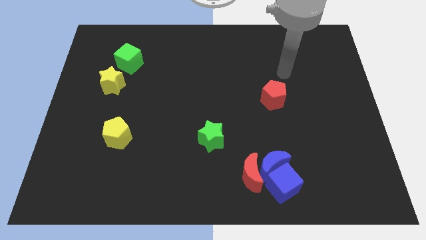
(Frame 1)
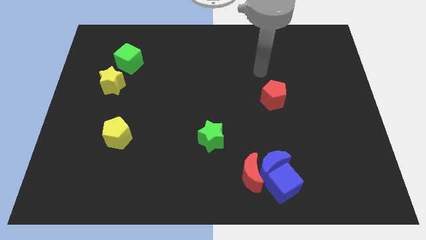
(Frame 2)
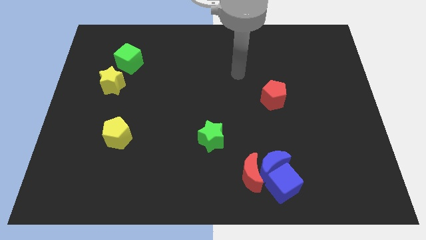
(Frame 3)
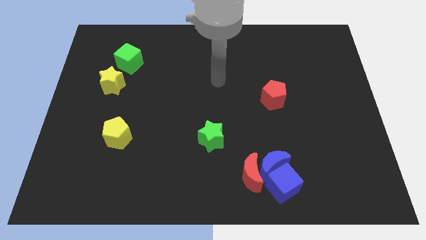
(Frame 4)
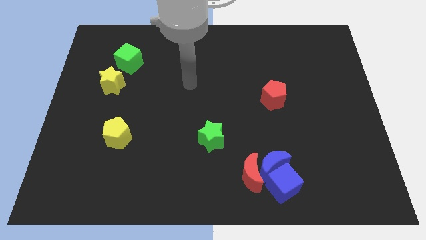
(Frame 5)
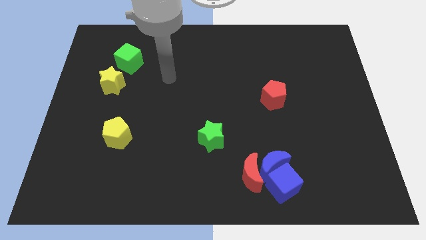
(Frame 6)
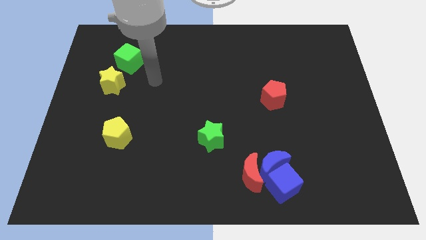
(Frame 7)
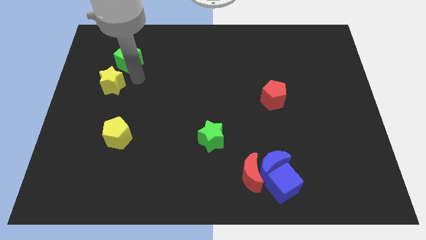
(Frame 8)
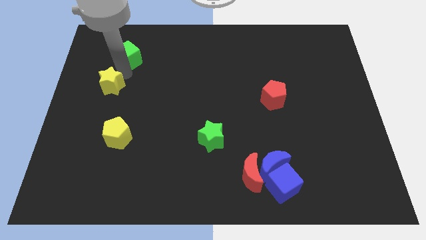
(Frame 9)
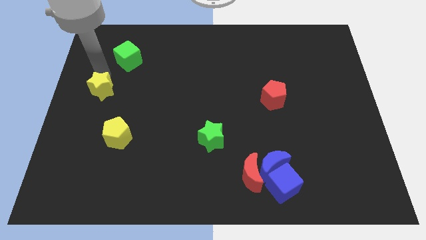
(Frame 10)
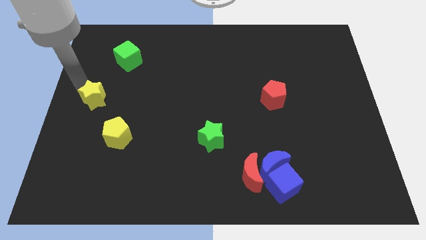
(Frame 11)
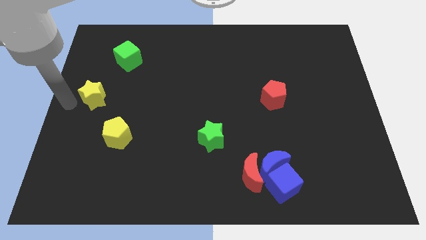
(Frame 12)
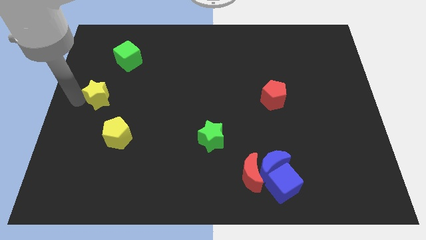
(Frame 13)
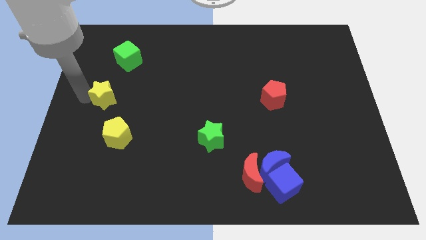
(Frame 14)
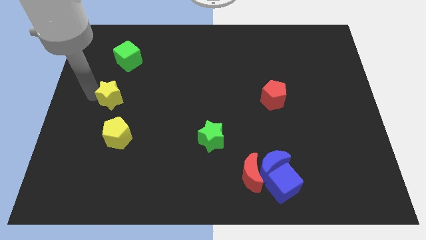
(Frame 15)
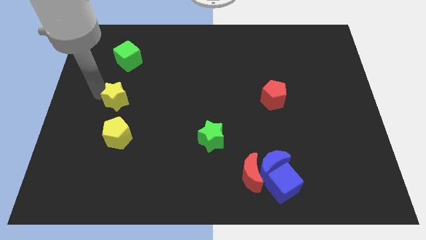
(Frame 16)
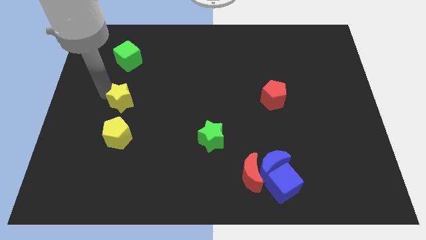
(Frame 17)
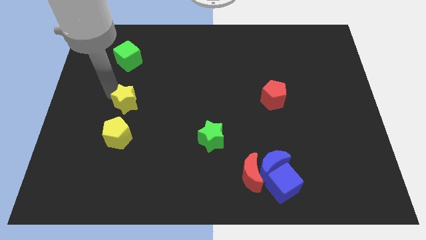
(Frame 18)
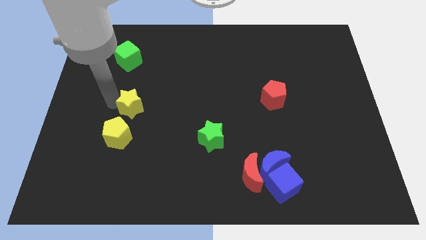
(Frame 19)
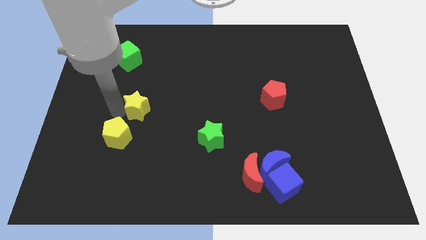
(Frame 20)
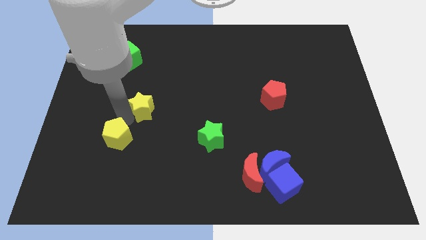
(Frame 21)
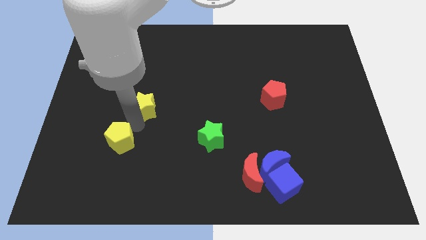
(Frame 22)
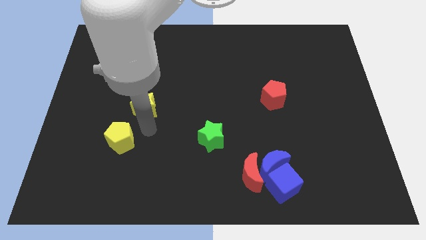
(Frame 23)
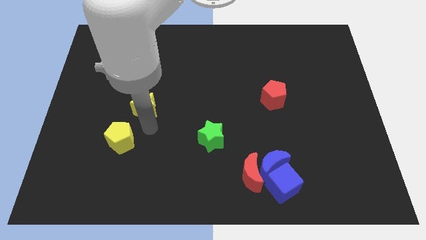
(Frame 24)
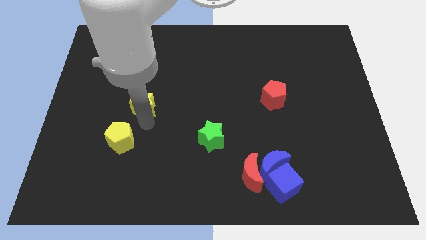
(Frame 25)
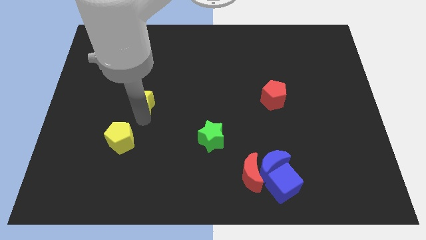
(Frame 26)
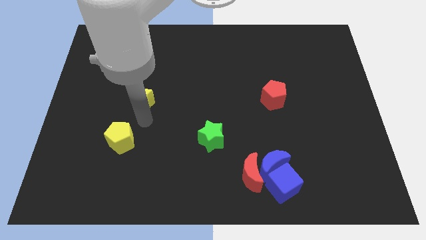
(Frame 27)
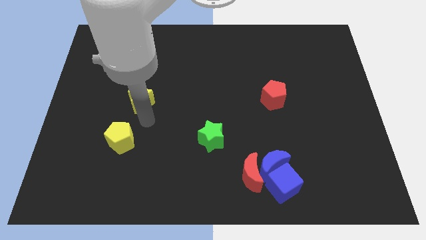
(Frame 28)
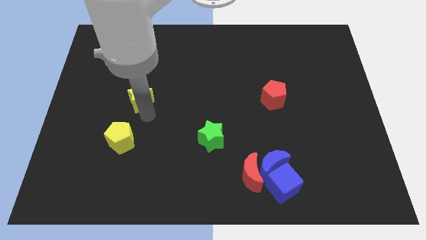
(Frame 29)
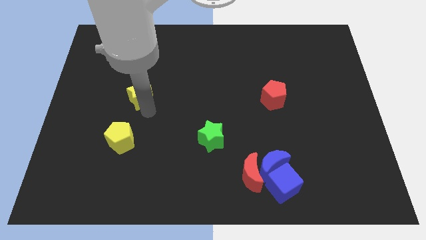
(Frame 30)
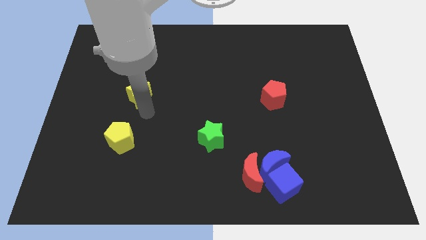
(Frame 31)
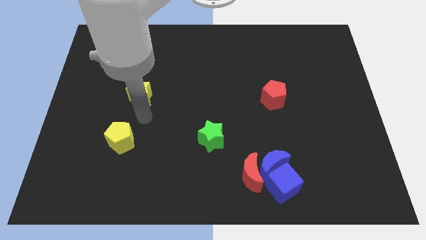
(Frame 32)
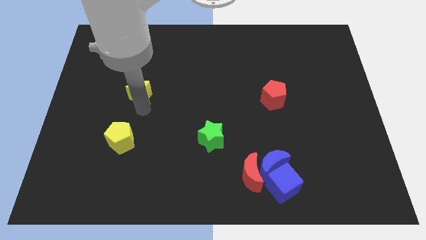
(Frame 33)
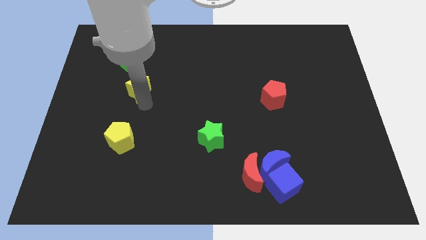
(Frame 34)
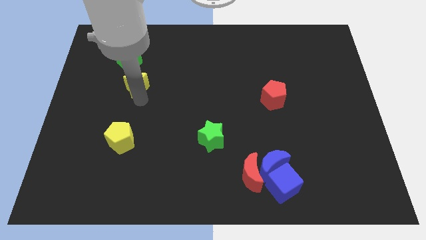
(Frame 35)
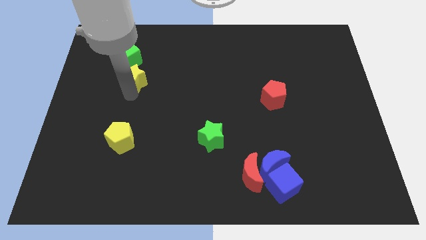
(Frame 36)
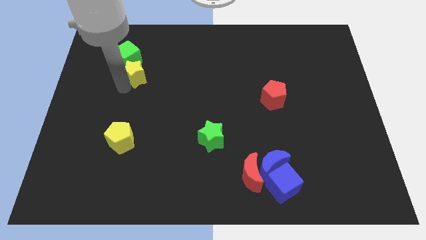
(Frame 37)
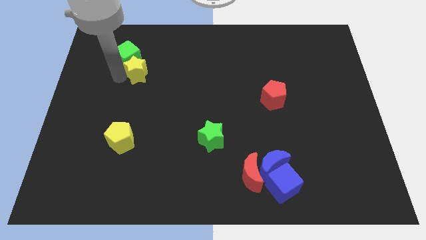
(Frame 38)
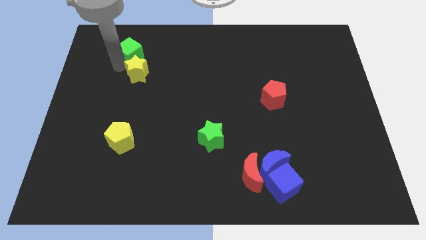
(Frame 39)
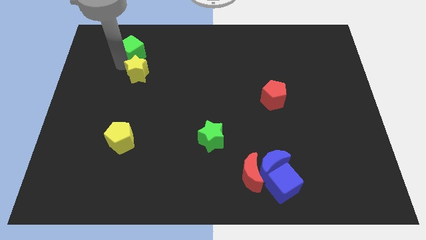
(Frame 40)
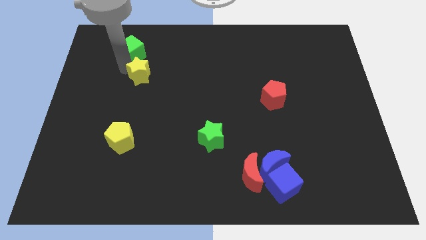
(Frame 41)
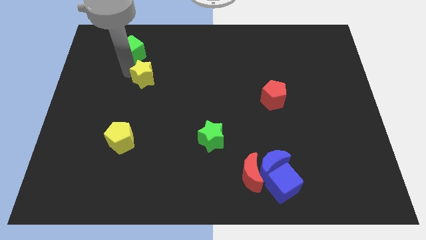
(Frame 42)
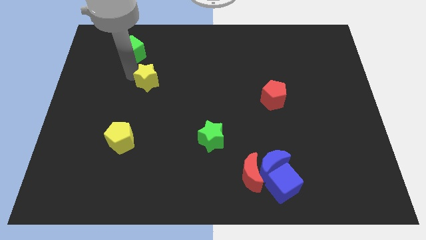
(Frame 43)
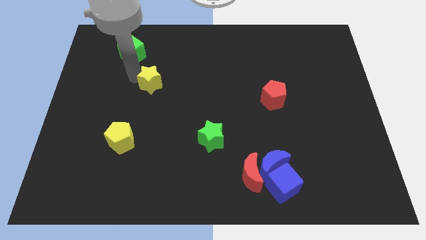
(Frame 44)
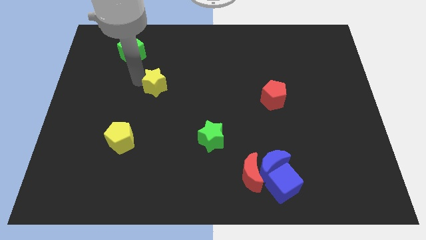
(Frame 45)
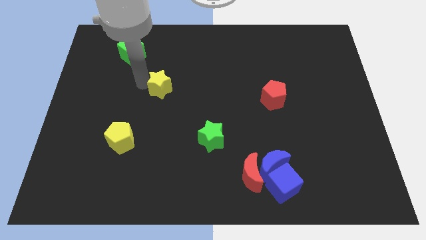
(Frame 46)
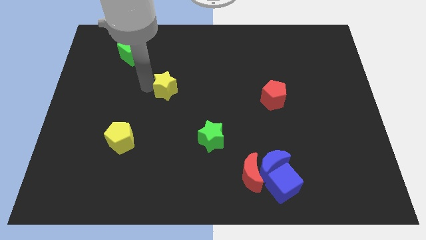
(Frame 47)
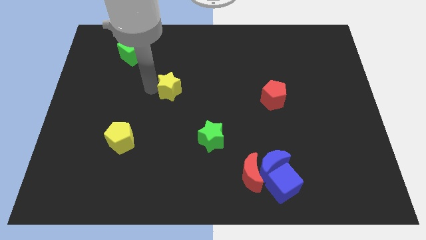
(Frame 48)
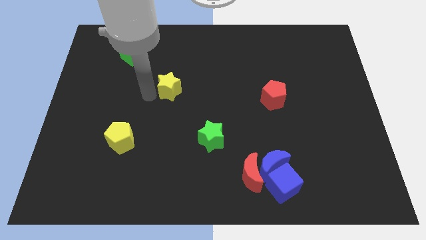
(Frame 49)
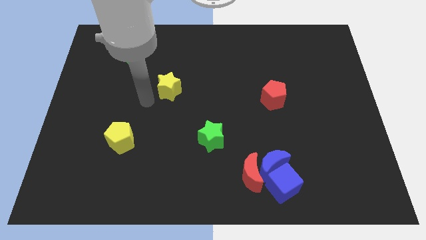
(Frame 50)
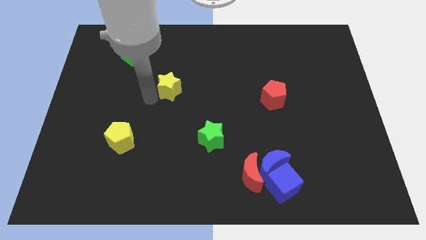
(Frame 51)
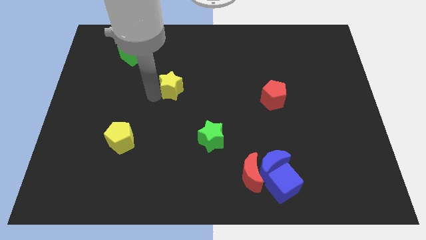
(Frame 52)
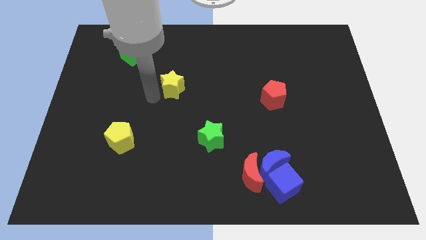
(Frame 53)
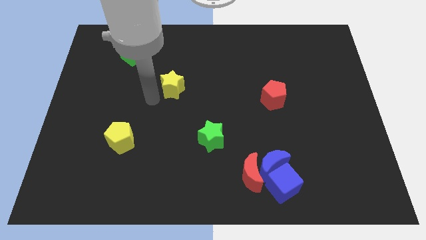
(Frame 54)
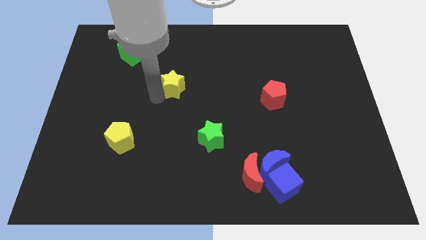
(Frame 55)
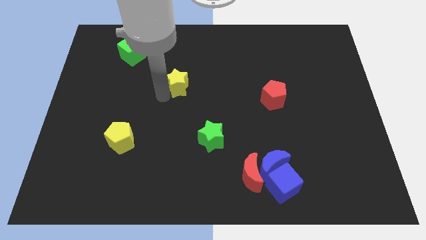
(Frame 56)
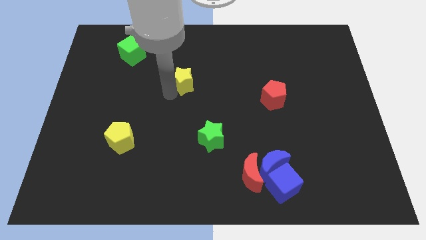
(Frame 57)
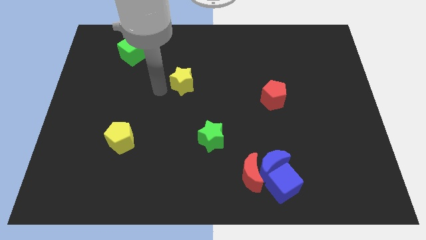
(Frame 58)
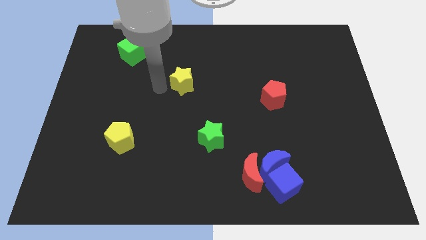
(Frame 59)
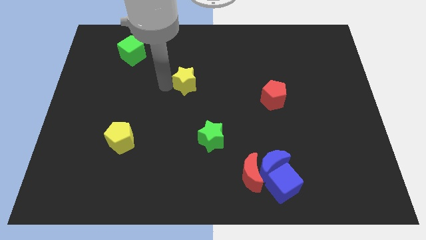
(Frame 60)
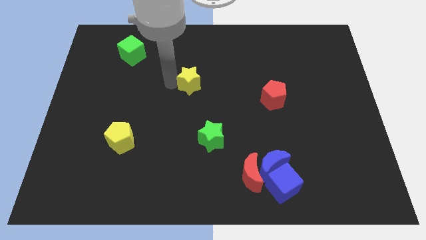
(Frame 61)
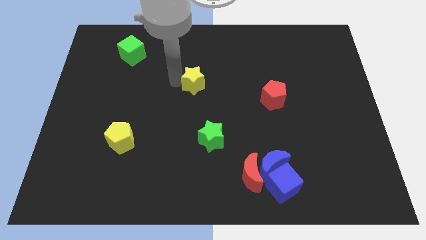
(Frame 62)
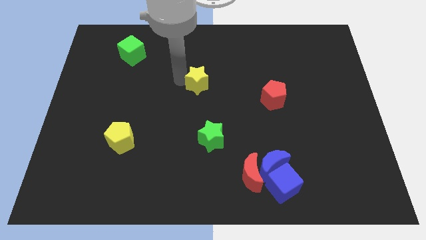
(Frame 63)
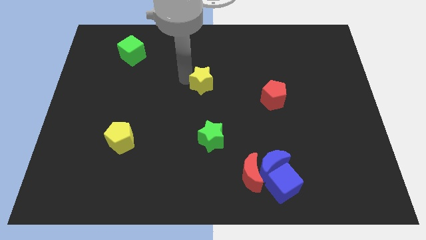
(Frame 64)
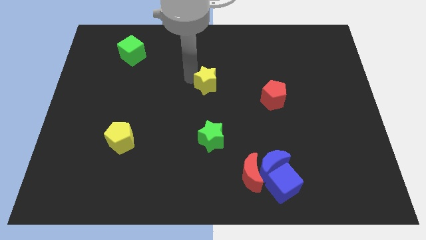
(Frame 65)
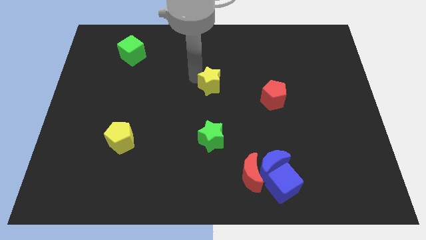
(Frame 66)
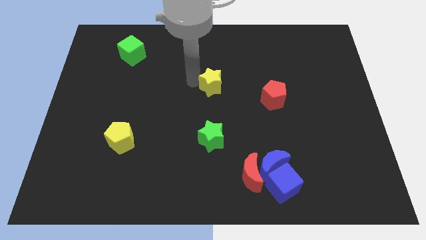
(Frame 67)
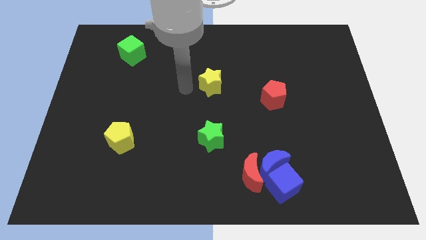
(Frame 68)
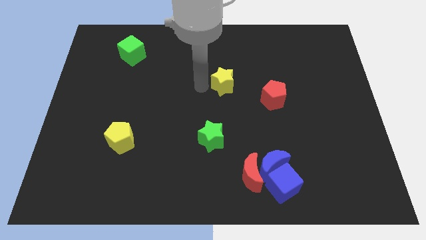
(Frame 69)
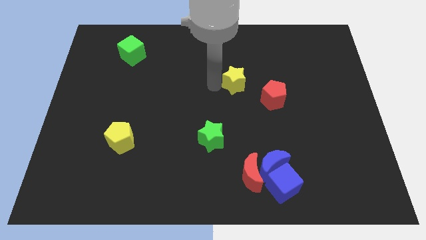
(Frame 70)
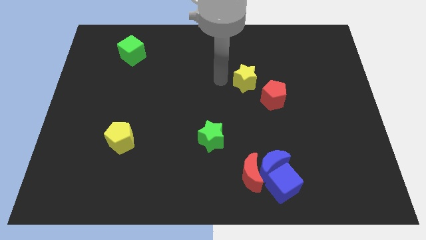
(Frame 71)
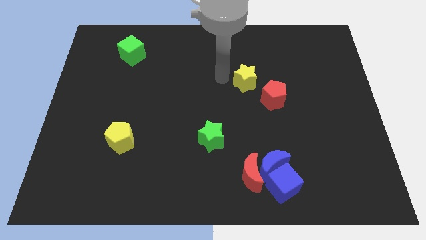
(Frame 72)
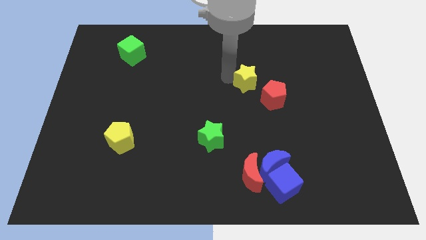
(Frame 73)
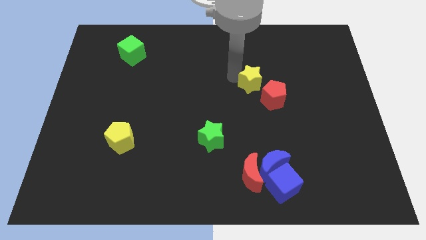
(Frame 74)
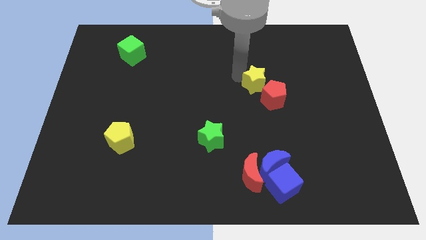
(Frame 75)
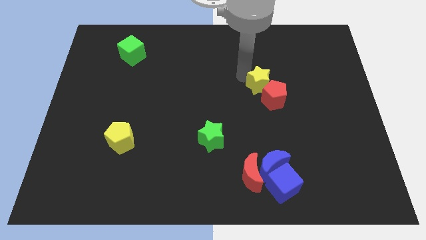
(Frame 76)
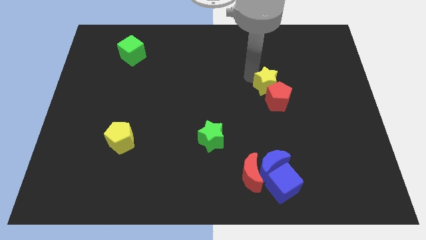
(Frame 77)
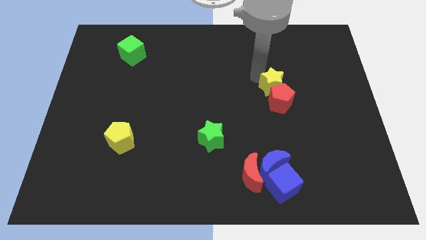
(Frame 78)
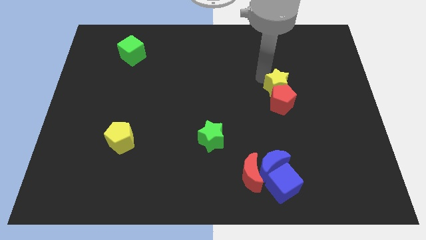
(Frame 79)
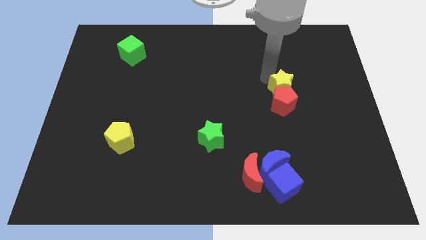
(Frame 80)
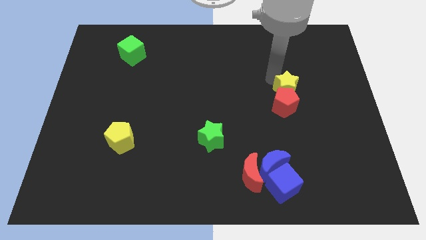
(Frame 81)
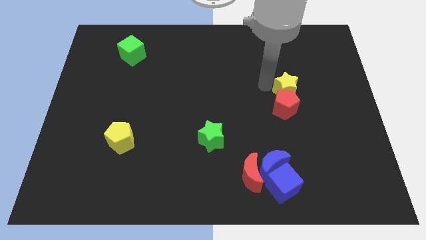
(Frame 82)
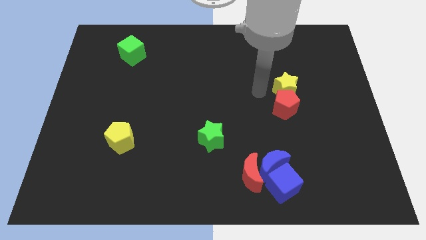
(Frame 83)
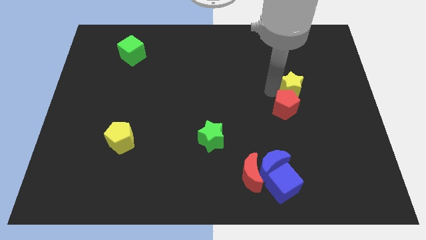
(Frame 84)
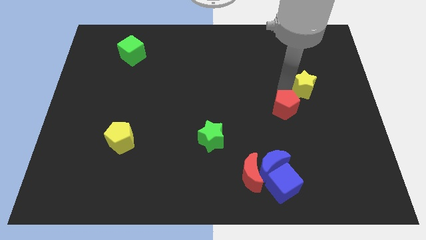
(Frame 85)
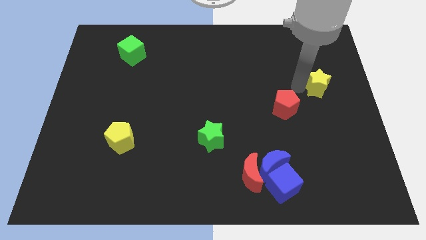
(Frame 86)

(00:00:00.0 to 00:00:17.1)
push the yellow star to the right side of the board
